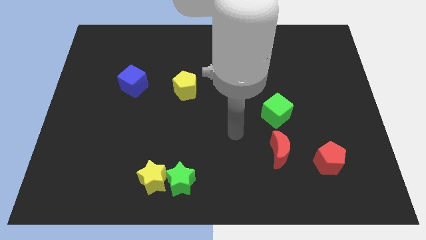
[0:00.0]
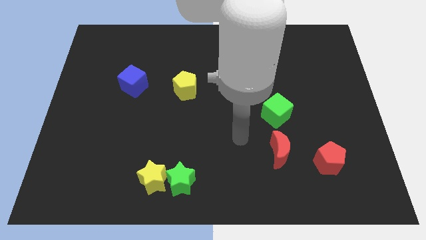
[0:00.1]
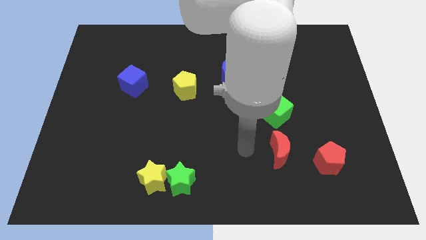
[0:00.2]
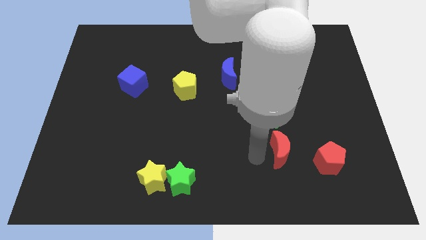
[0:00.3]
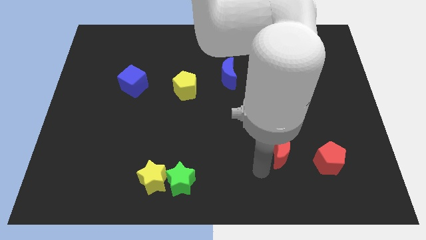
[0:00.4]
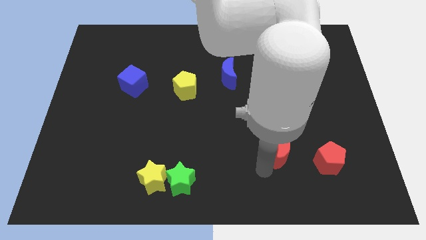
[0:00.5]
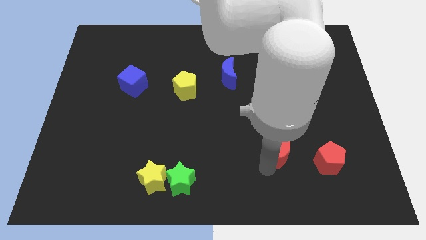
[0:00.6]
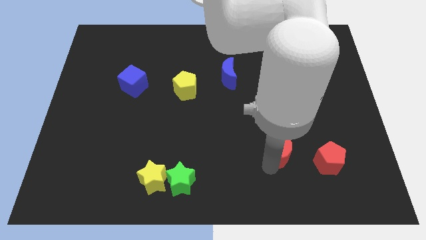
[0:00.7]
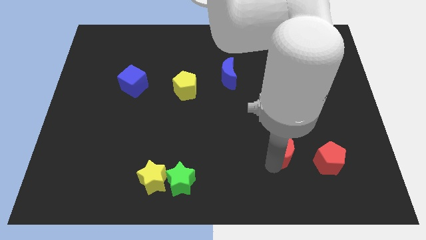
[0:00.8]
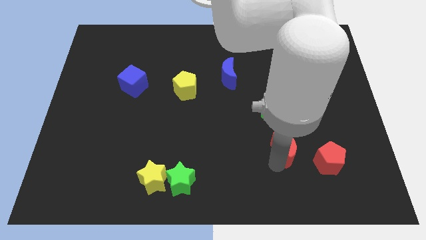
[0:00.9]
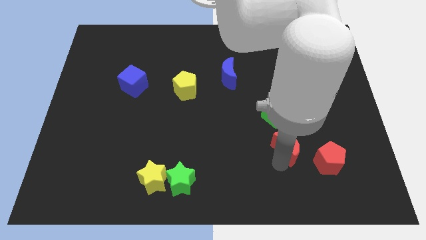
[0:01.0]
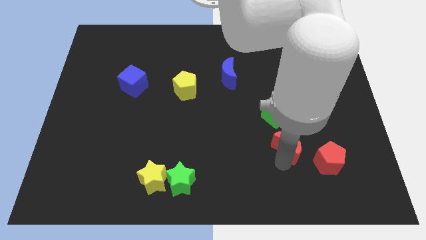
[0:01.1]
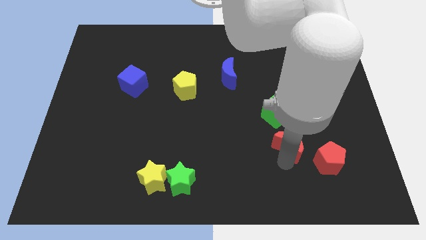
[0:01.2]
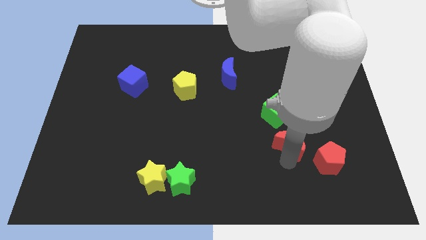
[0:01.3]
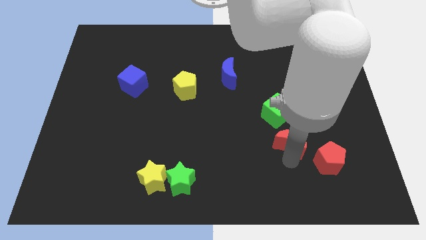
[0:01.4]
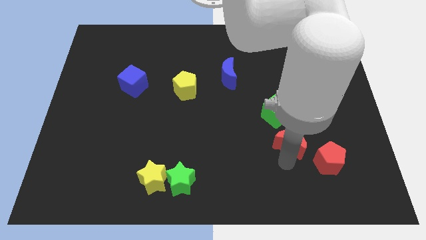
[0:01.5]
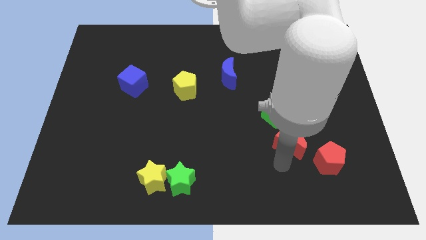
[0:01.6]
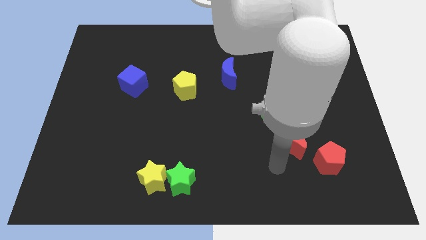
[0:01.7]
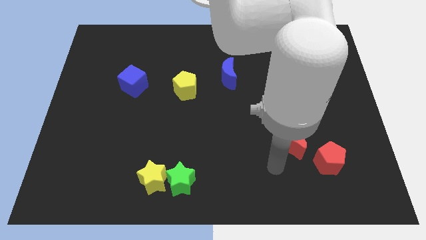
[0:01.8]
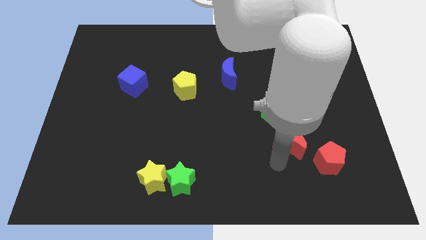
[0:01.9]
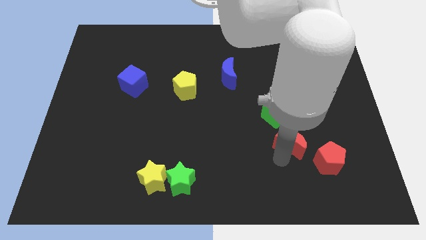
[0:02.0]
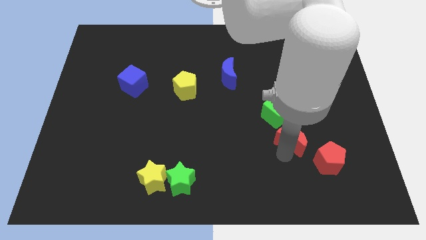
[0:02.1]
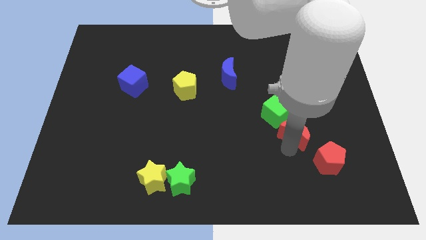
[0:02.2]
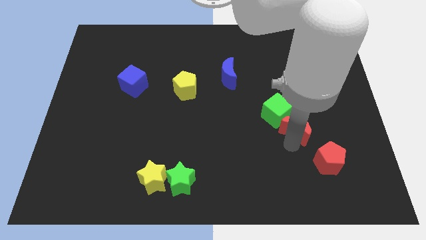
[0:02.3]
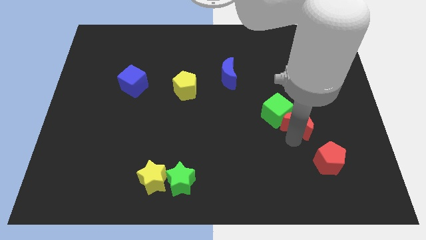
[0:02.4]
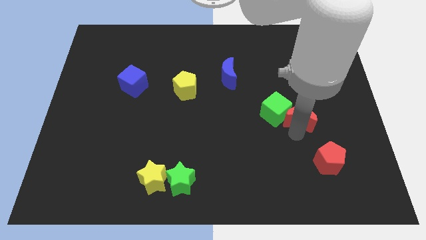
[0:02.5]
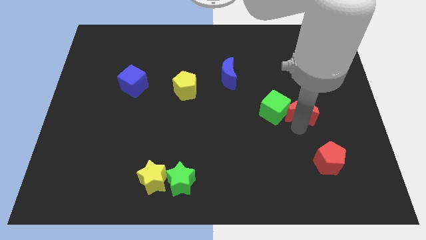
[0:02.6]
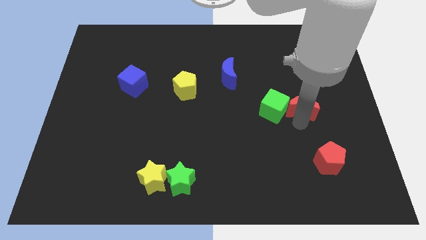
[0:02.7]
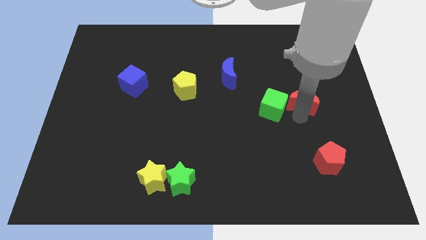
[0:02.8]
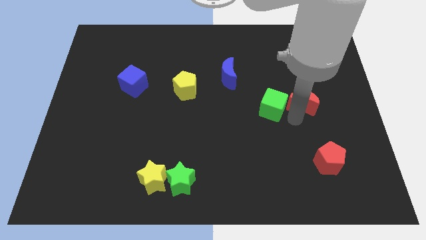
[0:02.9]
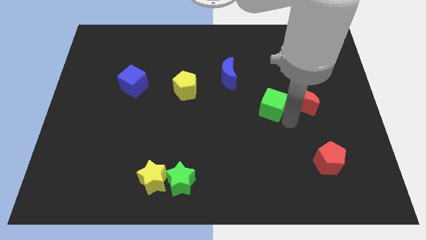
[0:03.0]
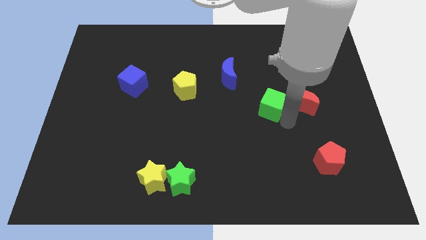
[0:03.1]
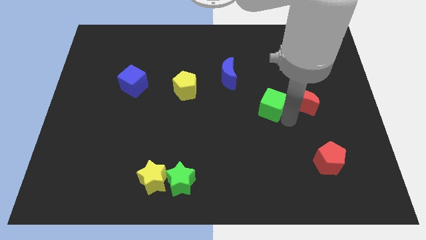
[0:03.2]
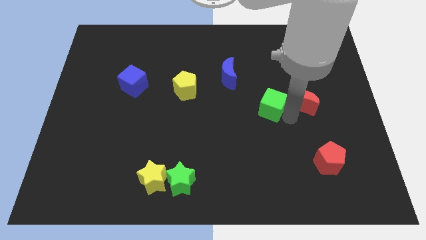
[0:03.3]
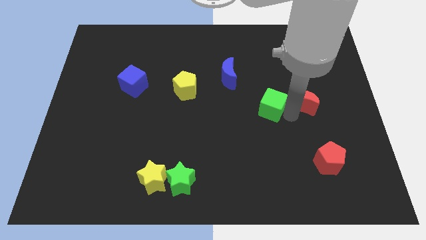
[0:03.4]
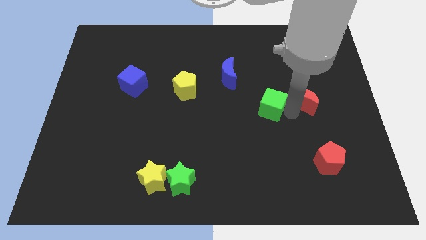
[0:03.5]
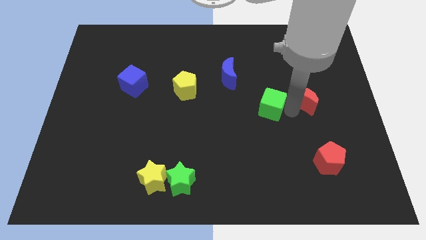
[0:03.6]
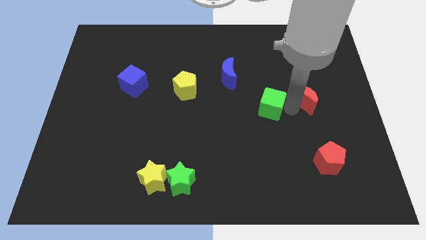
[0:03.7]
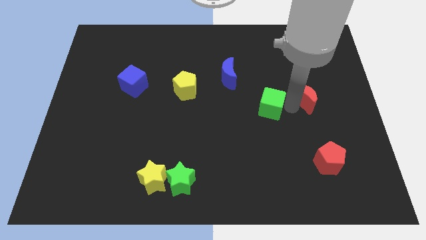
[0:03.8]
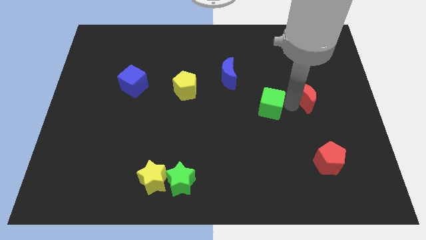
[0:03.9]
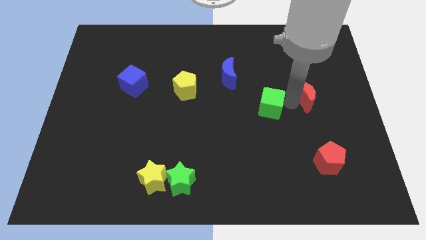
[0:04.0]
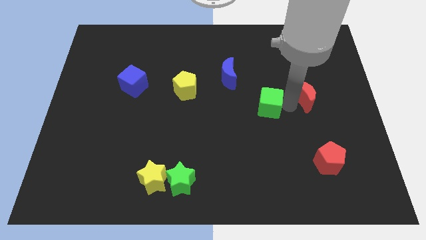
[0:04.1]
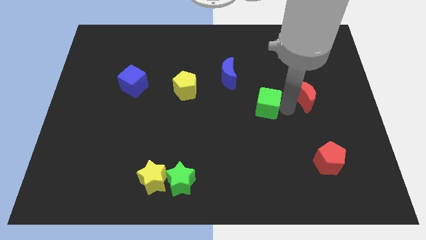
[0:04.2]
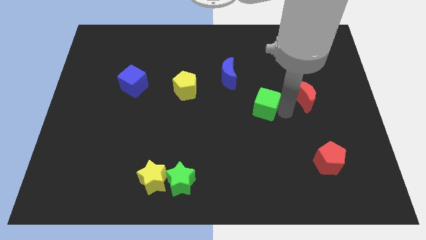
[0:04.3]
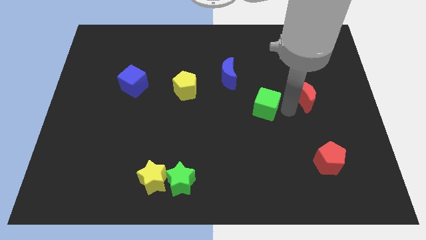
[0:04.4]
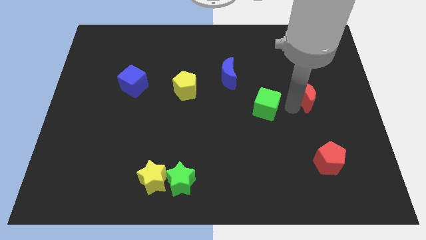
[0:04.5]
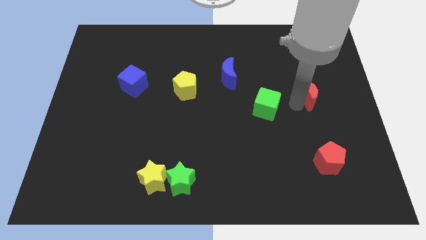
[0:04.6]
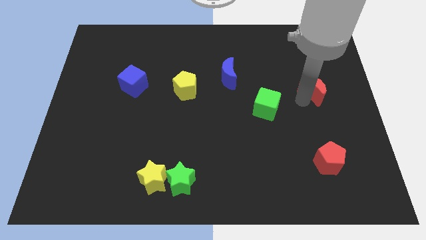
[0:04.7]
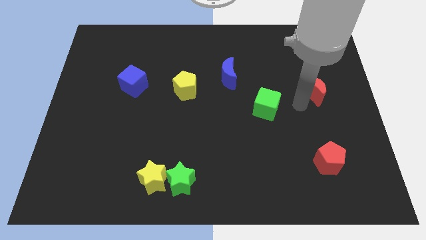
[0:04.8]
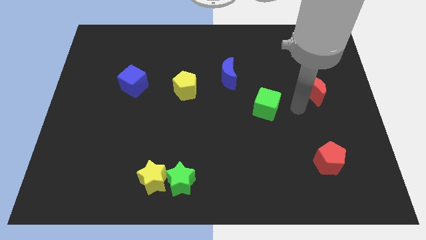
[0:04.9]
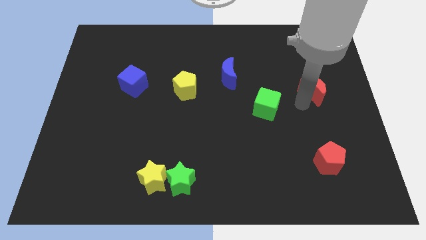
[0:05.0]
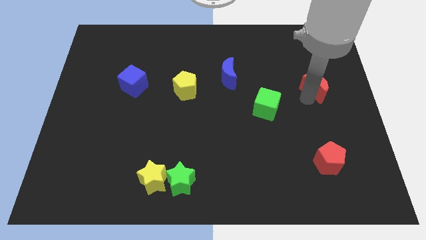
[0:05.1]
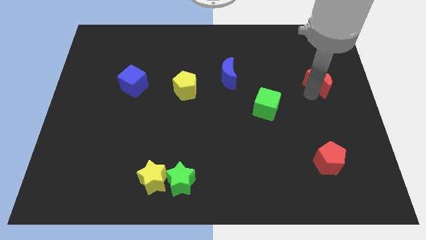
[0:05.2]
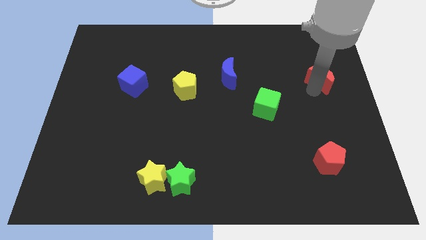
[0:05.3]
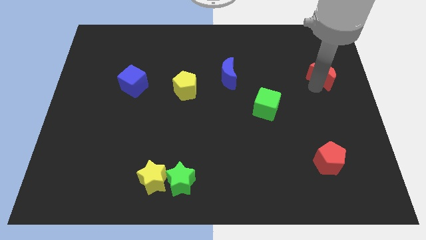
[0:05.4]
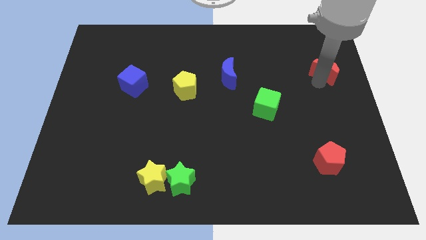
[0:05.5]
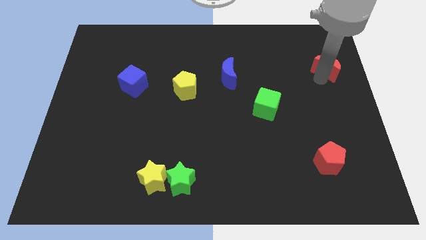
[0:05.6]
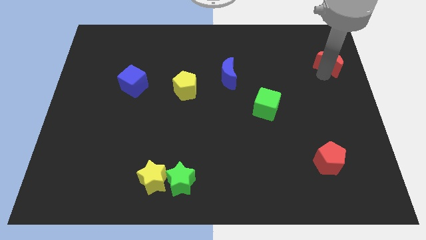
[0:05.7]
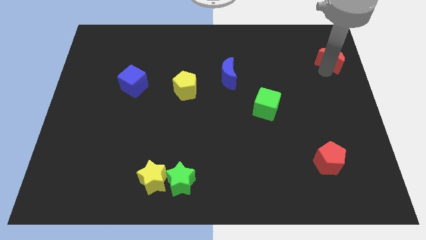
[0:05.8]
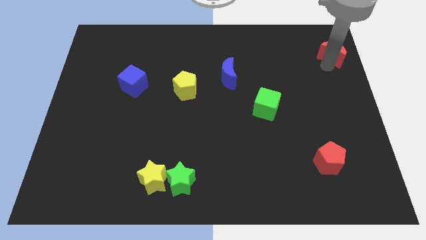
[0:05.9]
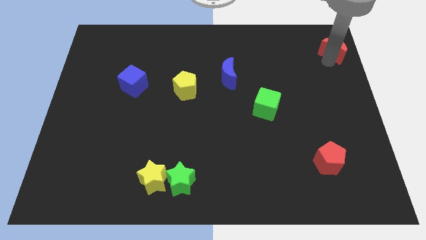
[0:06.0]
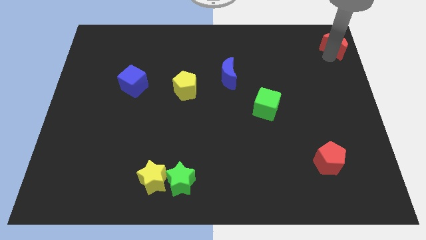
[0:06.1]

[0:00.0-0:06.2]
move the red moon to the upper right corner

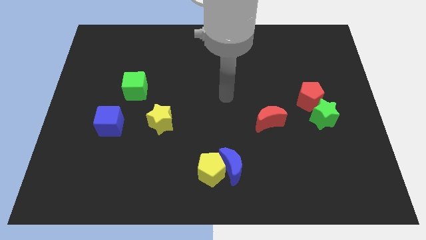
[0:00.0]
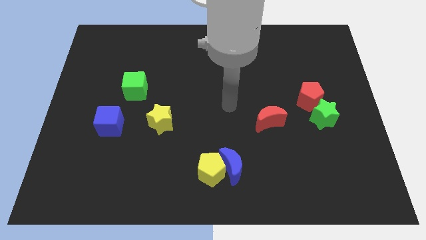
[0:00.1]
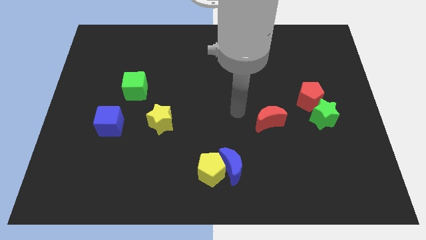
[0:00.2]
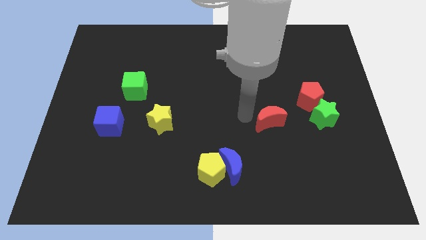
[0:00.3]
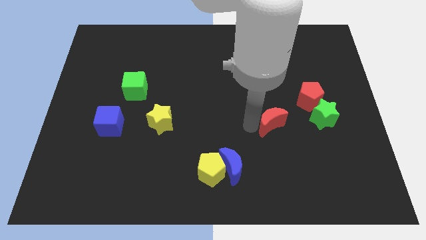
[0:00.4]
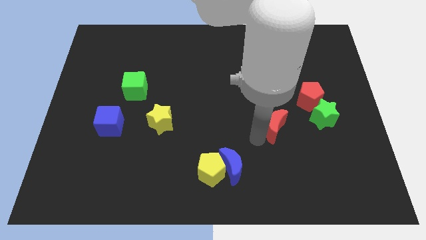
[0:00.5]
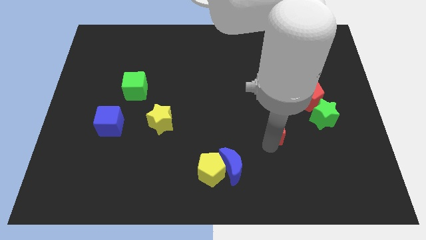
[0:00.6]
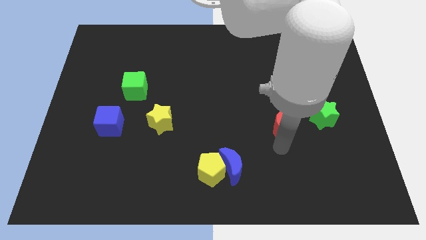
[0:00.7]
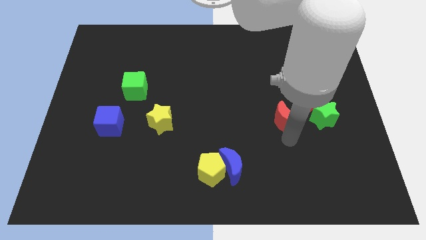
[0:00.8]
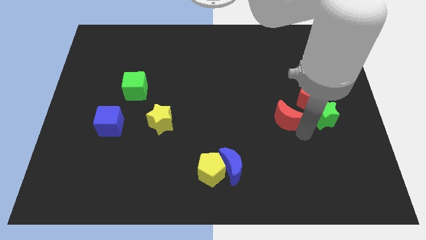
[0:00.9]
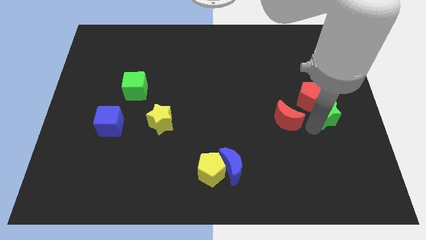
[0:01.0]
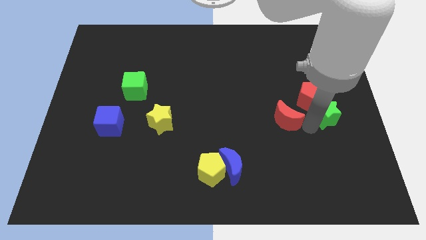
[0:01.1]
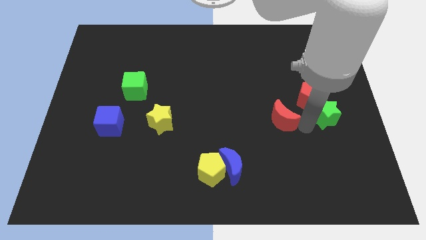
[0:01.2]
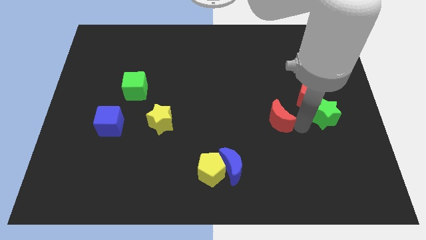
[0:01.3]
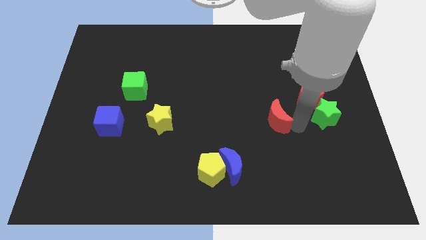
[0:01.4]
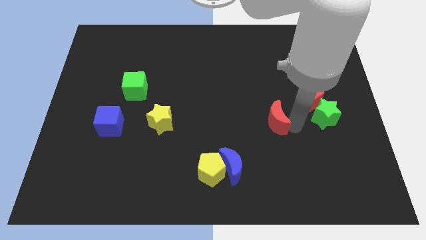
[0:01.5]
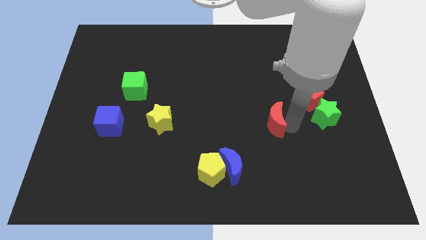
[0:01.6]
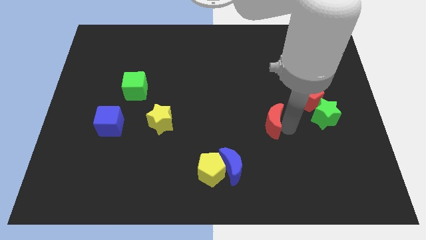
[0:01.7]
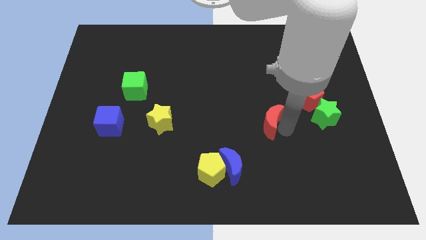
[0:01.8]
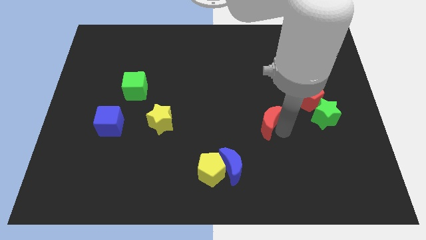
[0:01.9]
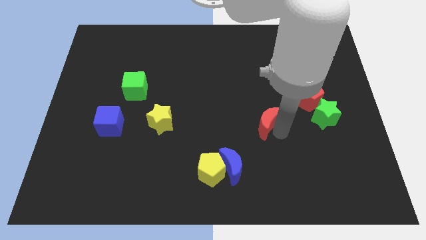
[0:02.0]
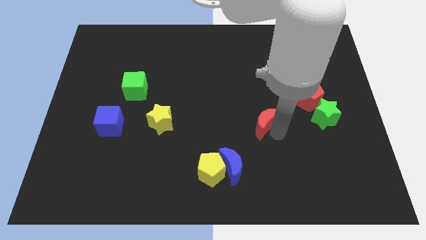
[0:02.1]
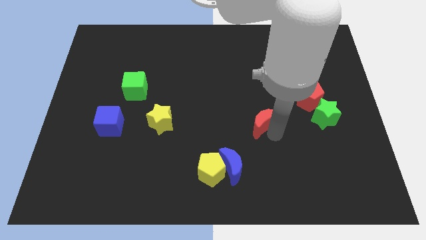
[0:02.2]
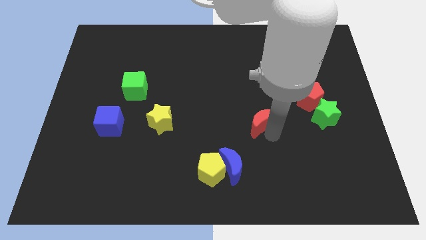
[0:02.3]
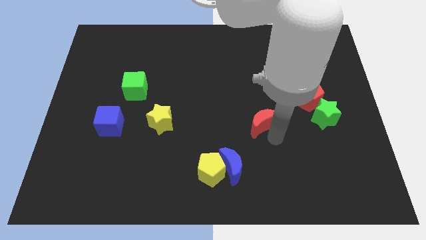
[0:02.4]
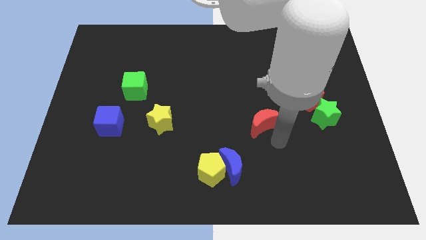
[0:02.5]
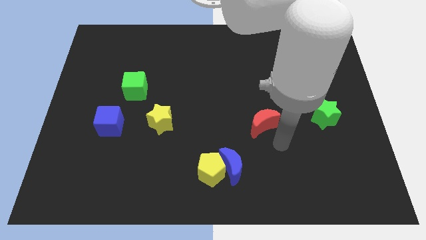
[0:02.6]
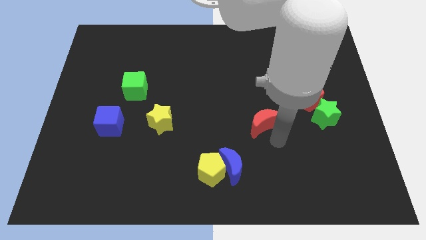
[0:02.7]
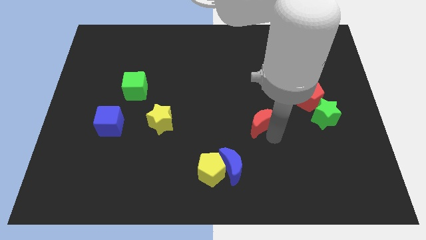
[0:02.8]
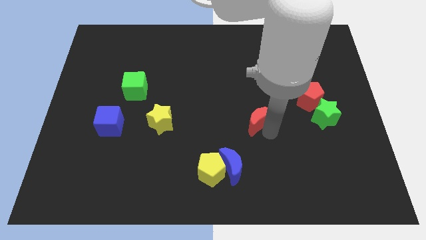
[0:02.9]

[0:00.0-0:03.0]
push the red moon to the center of the board
